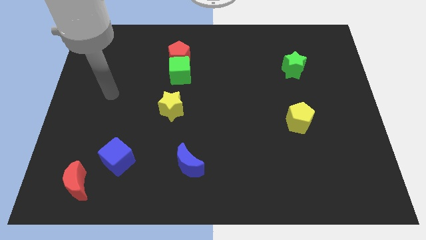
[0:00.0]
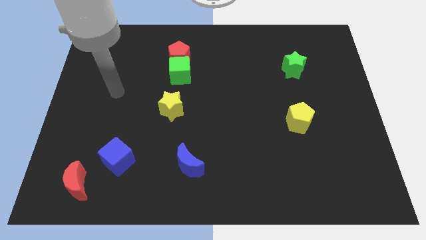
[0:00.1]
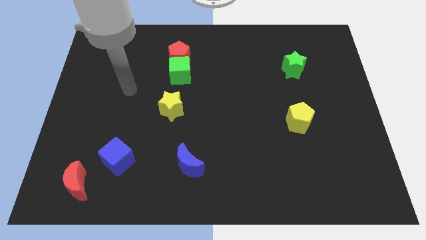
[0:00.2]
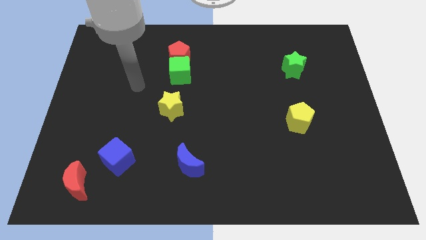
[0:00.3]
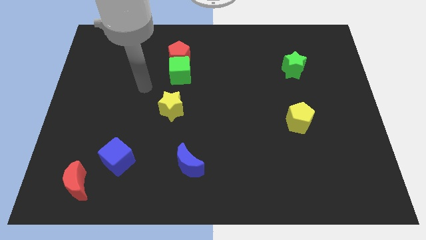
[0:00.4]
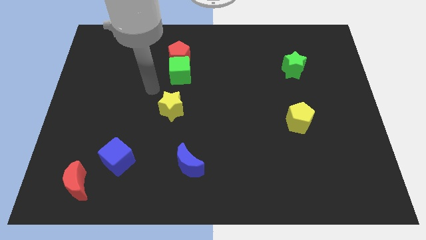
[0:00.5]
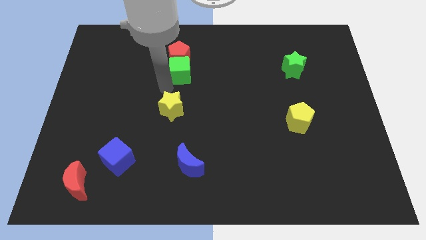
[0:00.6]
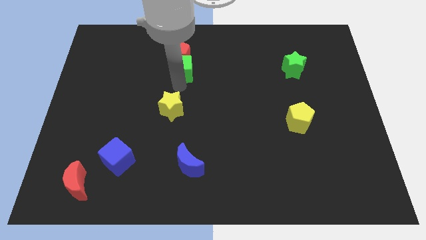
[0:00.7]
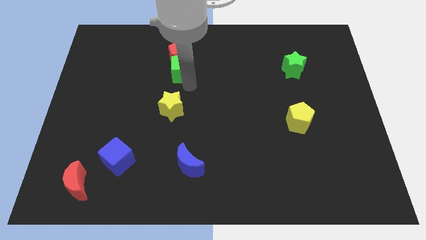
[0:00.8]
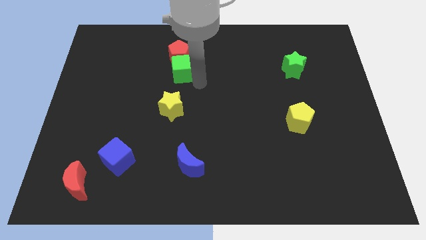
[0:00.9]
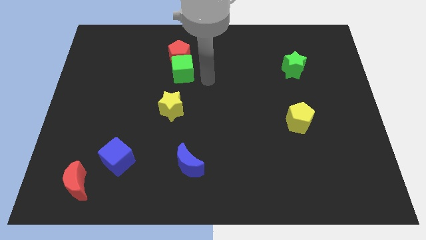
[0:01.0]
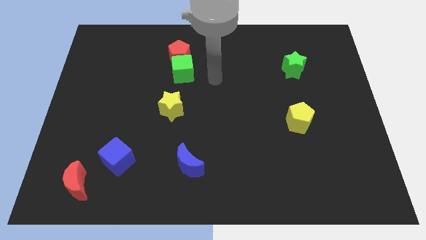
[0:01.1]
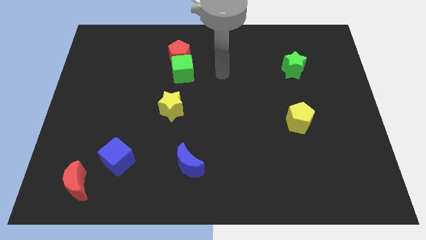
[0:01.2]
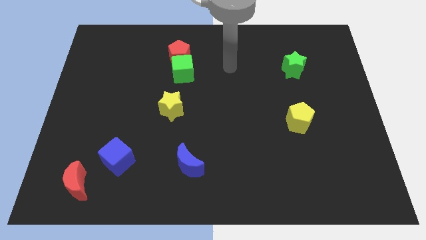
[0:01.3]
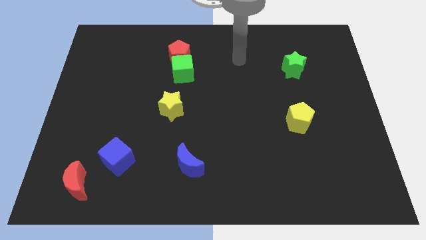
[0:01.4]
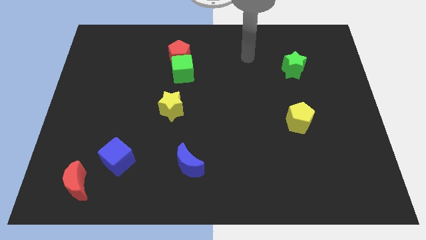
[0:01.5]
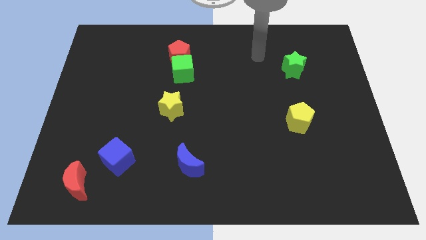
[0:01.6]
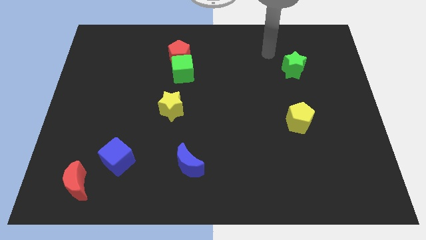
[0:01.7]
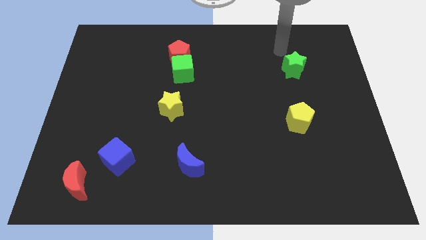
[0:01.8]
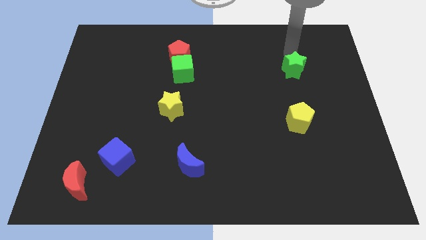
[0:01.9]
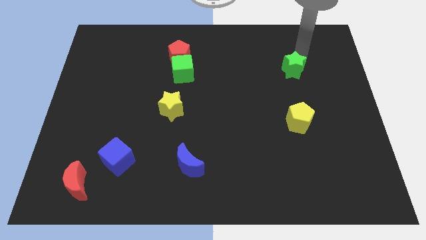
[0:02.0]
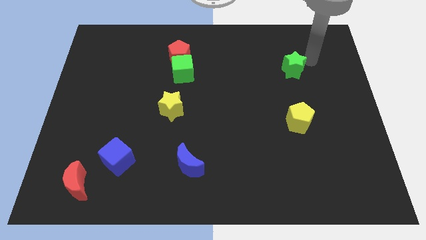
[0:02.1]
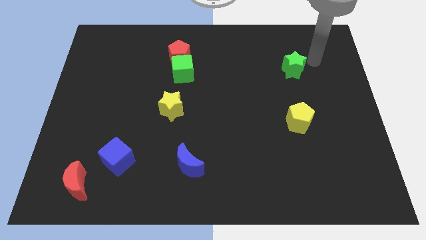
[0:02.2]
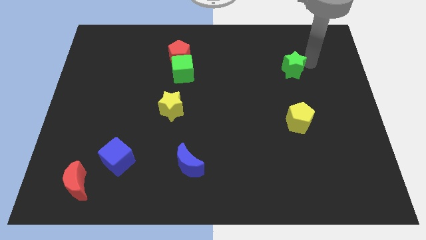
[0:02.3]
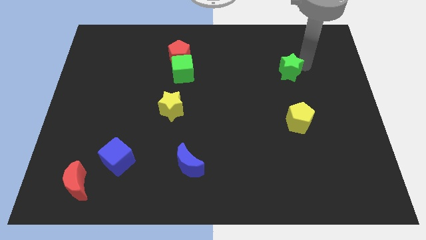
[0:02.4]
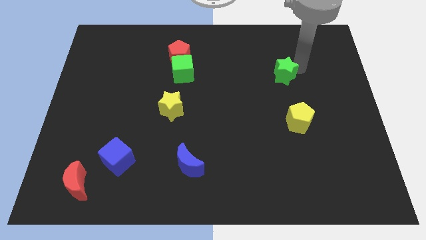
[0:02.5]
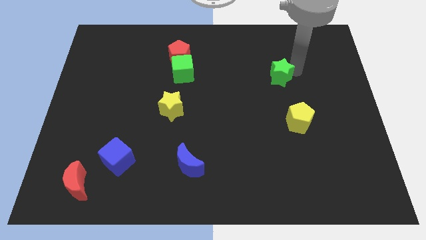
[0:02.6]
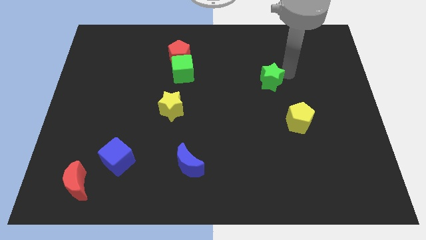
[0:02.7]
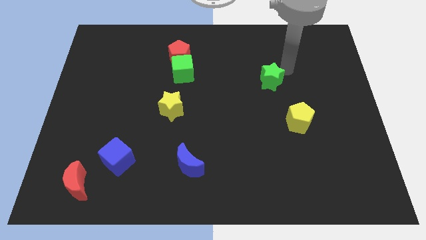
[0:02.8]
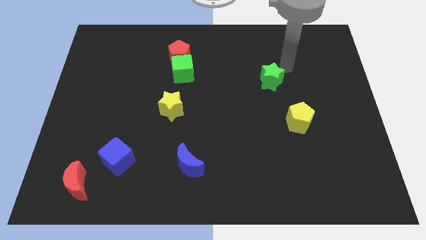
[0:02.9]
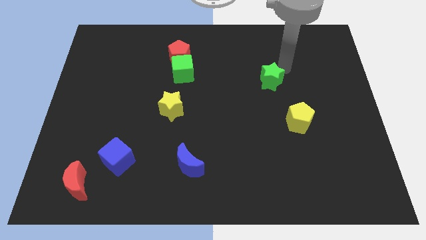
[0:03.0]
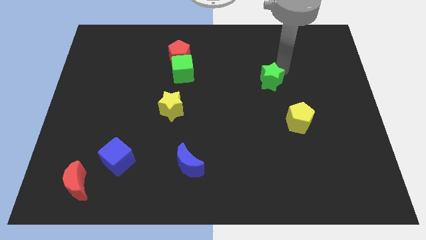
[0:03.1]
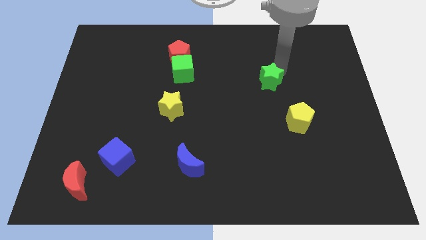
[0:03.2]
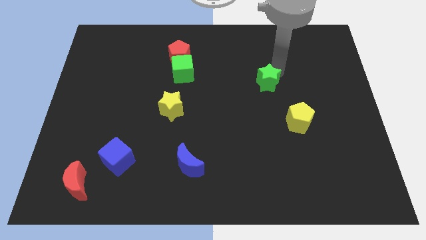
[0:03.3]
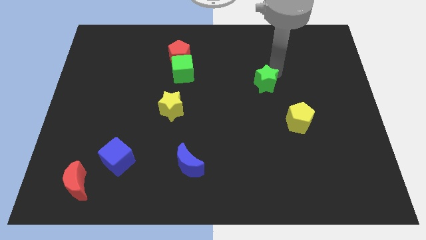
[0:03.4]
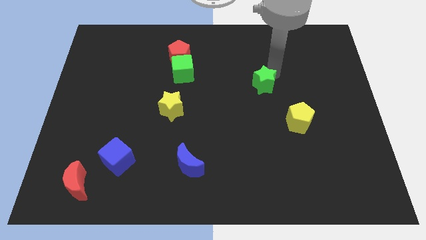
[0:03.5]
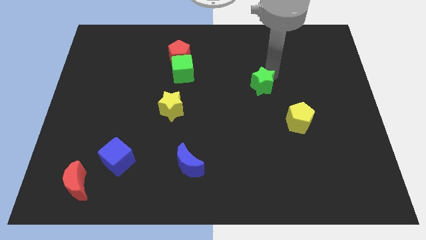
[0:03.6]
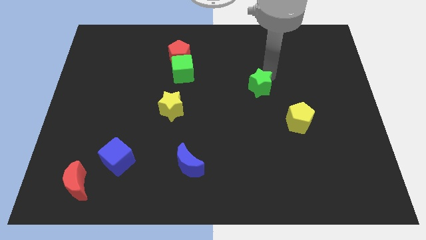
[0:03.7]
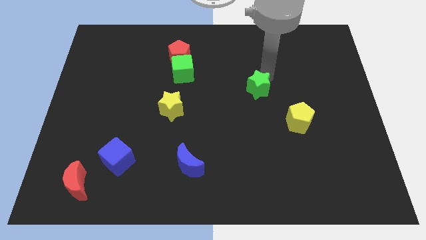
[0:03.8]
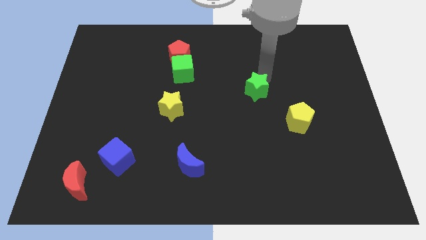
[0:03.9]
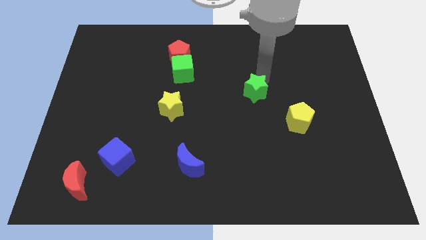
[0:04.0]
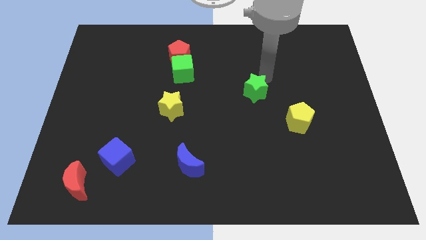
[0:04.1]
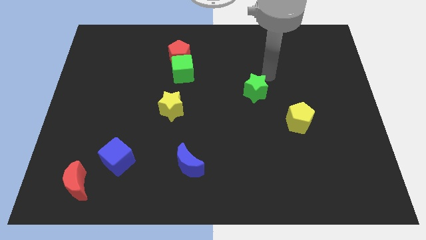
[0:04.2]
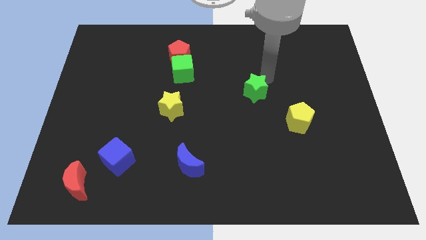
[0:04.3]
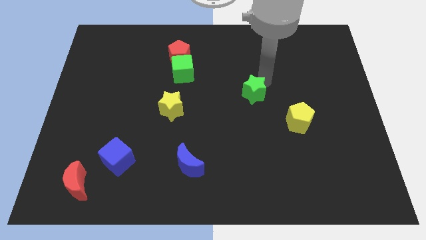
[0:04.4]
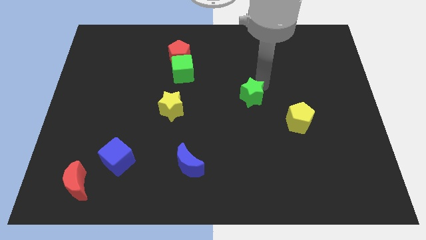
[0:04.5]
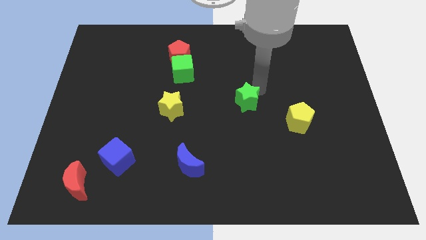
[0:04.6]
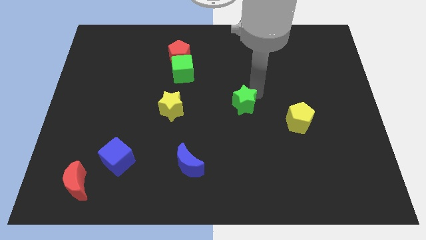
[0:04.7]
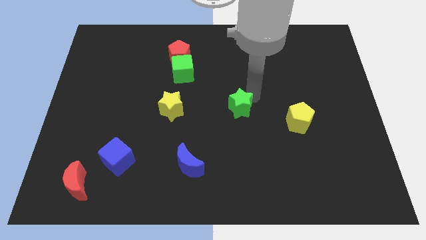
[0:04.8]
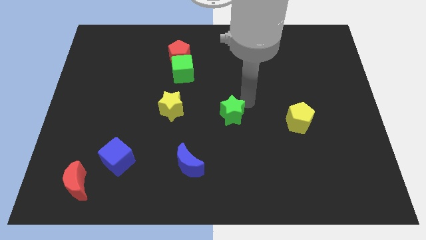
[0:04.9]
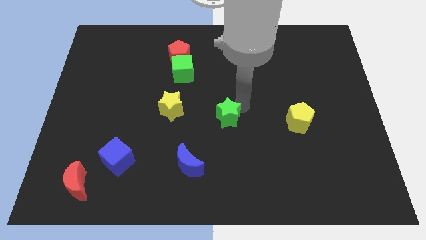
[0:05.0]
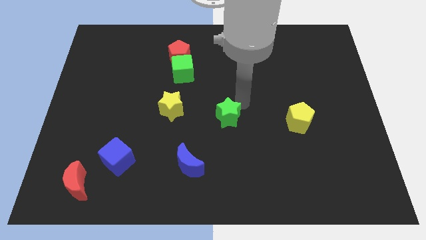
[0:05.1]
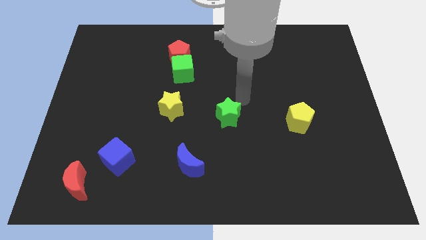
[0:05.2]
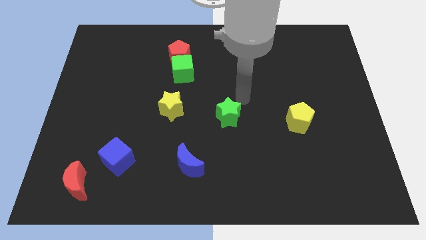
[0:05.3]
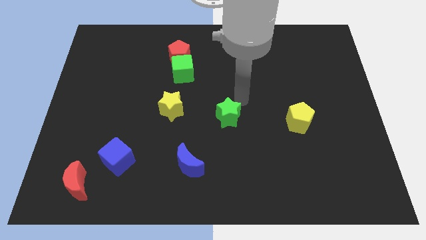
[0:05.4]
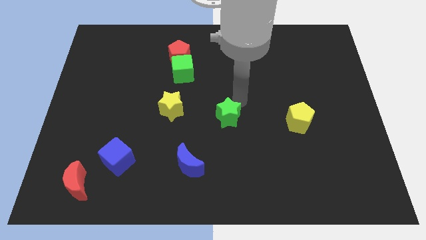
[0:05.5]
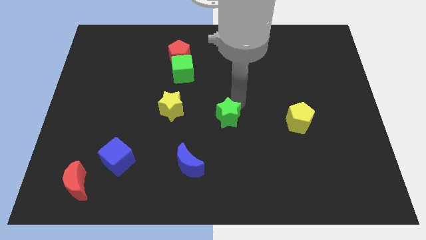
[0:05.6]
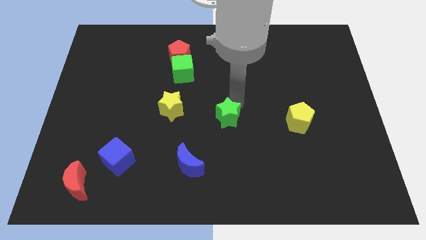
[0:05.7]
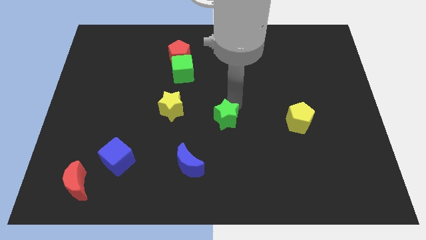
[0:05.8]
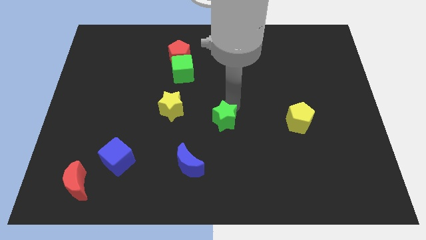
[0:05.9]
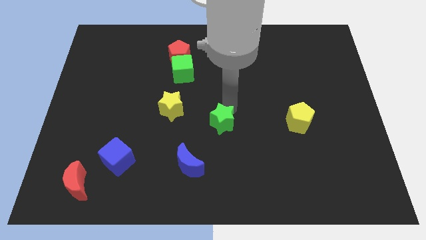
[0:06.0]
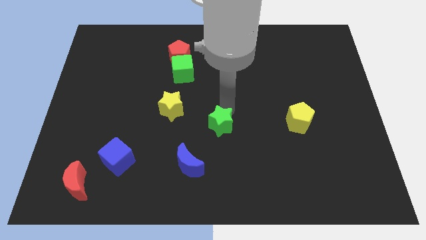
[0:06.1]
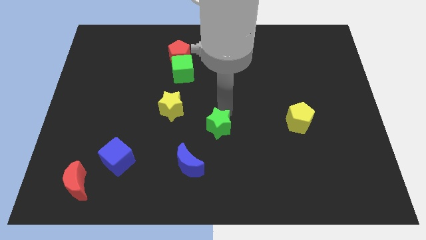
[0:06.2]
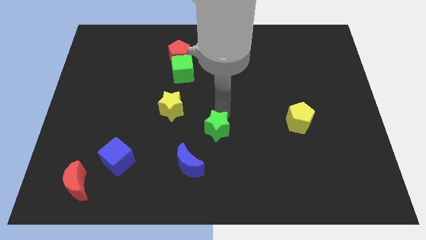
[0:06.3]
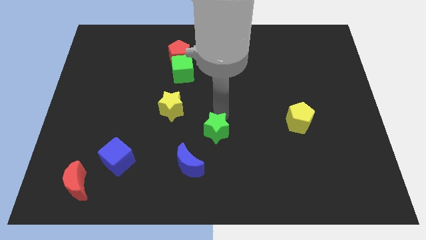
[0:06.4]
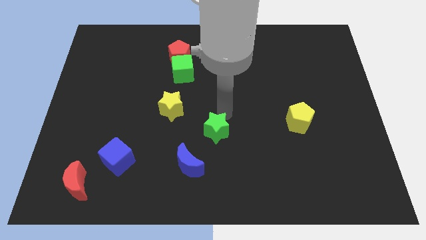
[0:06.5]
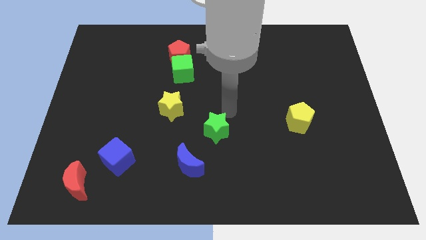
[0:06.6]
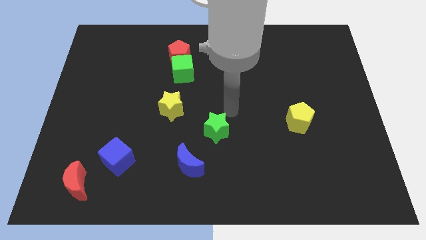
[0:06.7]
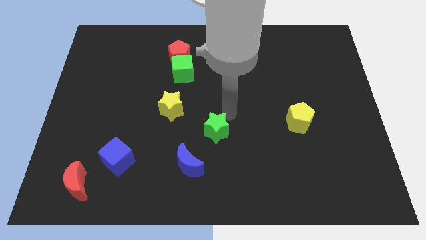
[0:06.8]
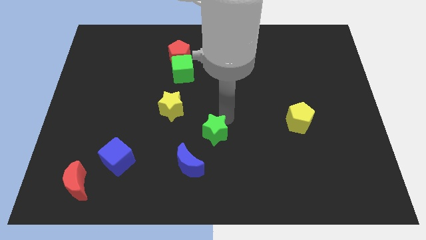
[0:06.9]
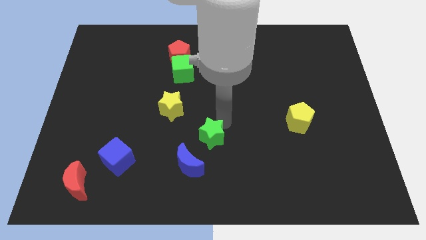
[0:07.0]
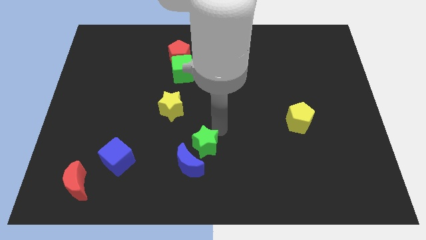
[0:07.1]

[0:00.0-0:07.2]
slide the green star close to the blue moon

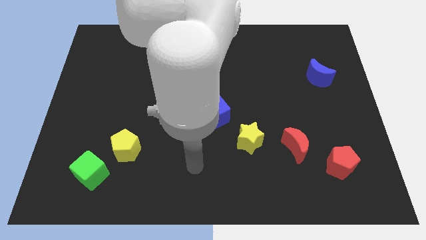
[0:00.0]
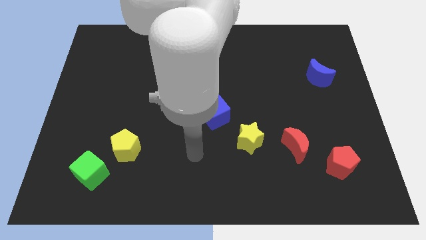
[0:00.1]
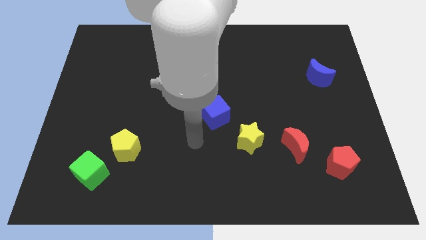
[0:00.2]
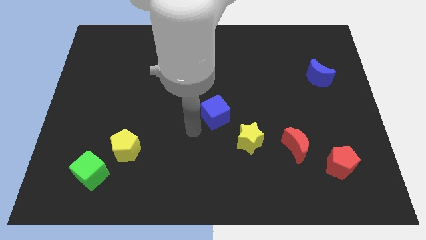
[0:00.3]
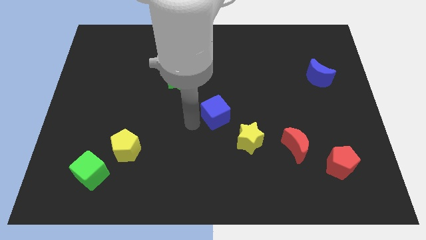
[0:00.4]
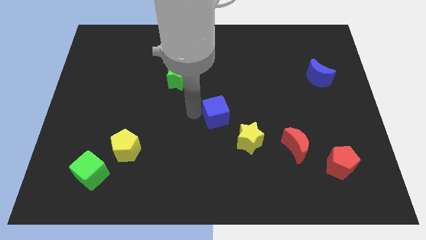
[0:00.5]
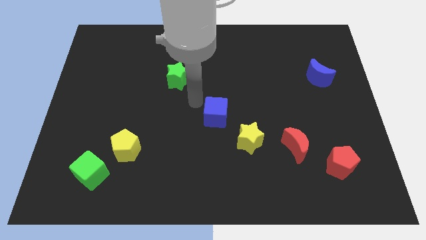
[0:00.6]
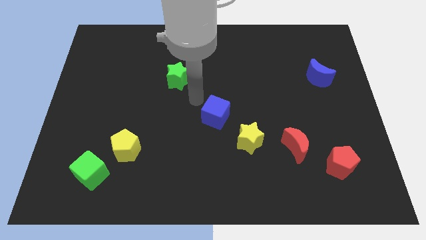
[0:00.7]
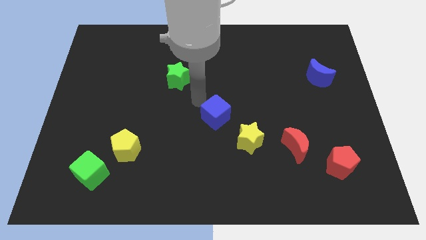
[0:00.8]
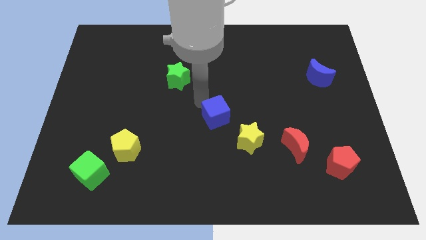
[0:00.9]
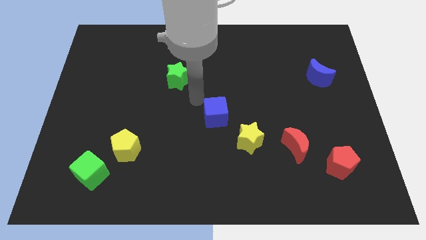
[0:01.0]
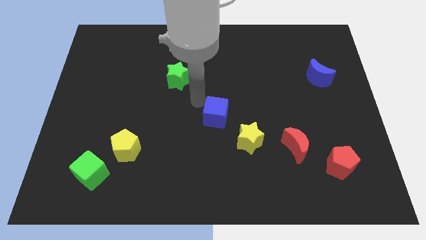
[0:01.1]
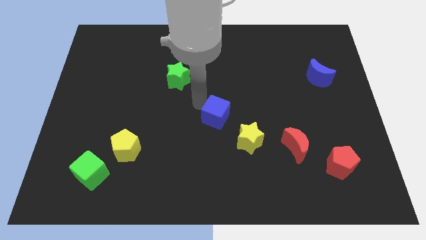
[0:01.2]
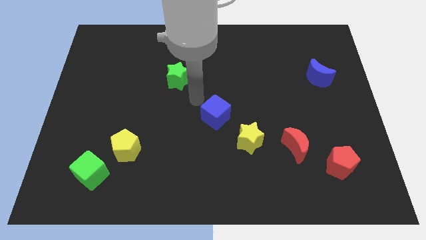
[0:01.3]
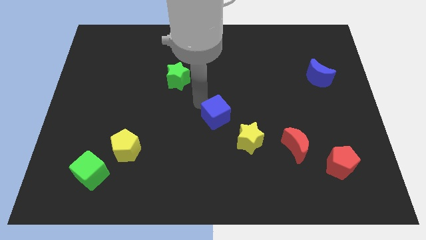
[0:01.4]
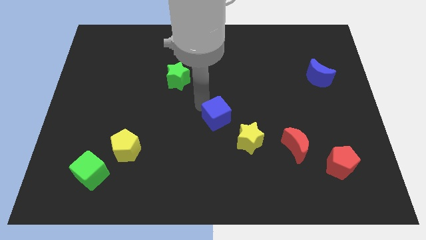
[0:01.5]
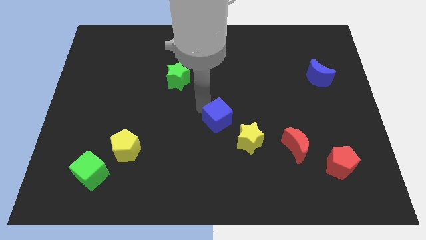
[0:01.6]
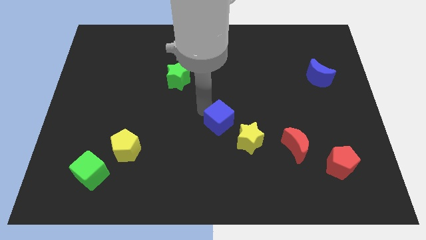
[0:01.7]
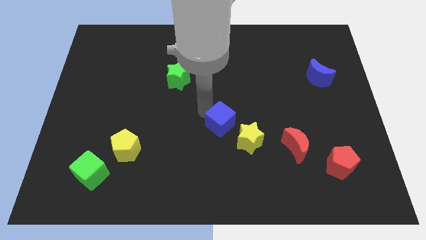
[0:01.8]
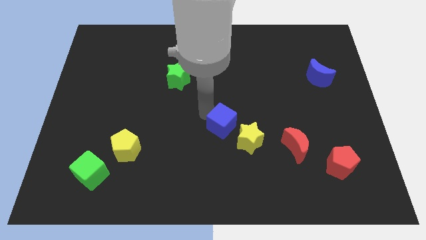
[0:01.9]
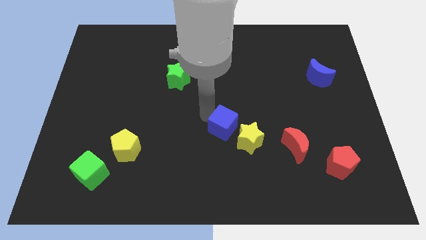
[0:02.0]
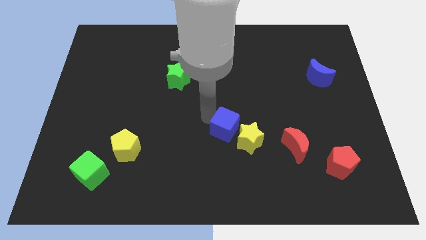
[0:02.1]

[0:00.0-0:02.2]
put the blue cube next to the yellow star
